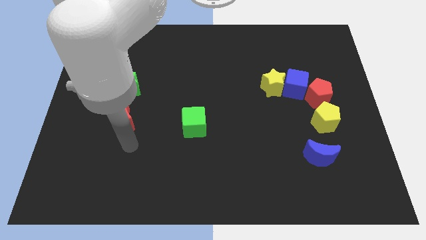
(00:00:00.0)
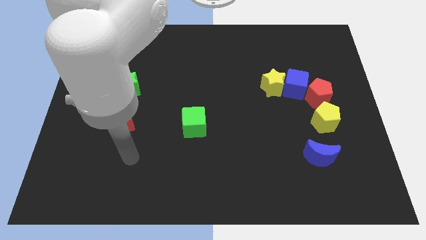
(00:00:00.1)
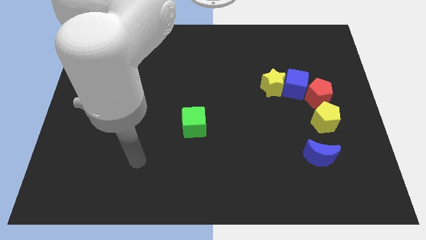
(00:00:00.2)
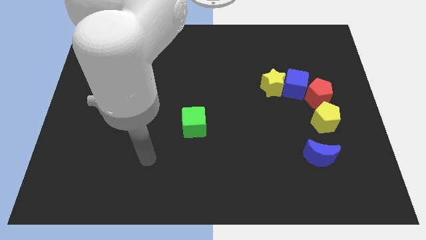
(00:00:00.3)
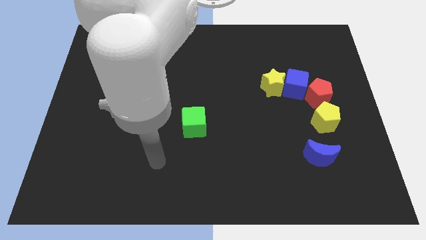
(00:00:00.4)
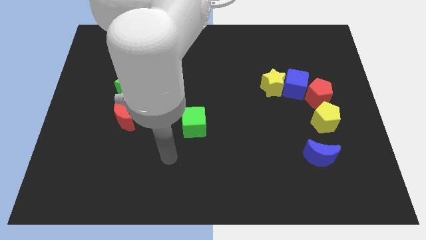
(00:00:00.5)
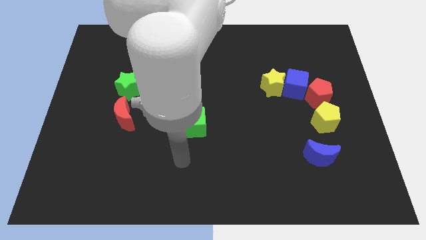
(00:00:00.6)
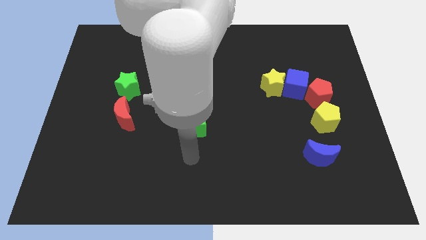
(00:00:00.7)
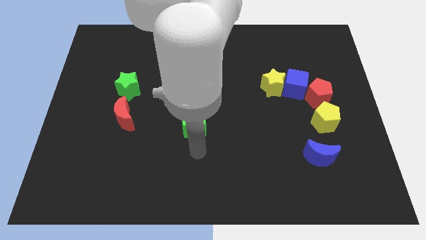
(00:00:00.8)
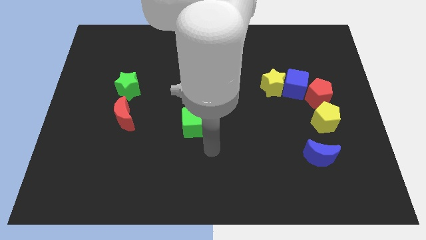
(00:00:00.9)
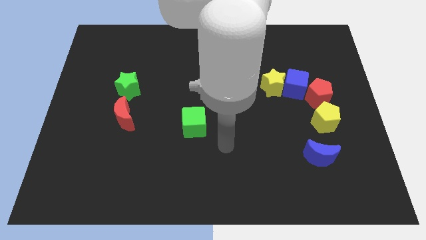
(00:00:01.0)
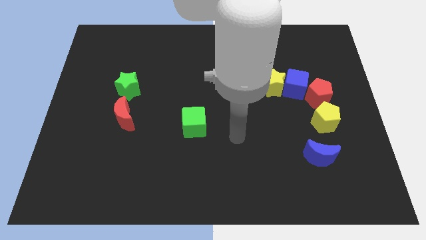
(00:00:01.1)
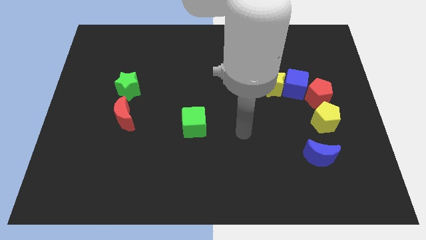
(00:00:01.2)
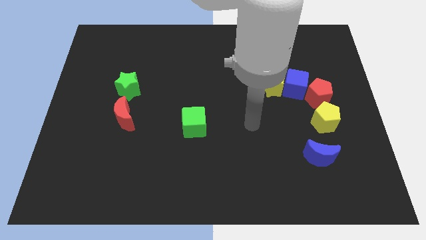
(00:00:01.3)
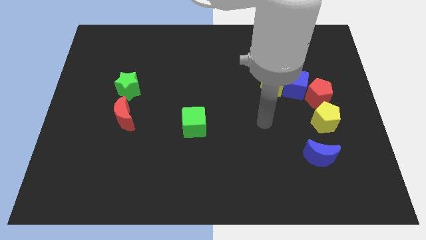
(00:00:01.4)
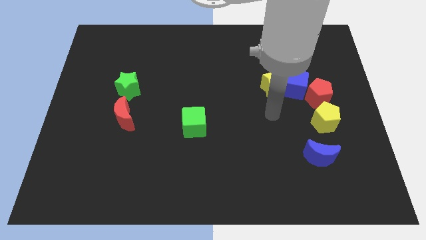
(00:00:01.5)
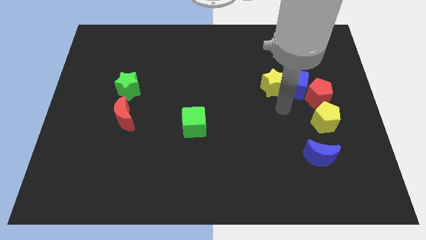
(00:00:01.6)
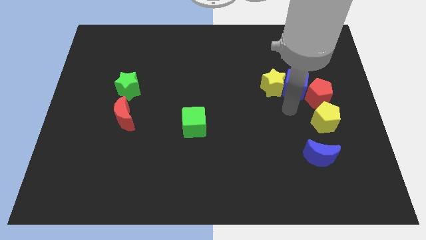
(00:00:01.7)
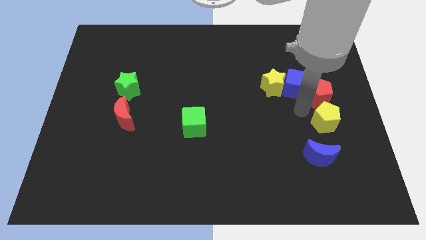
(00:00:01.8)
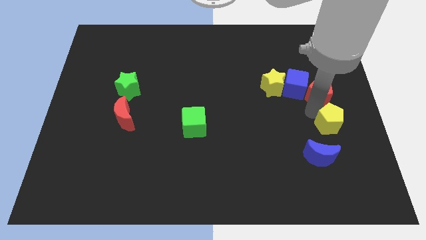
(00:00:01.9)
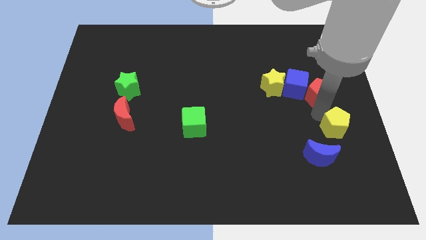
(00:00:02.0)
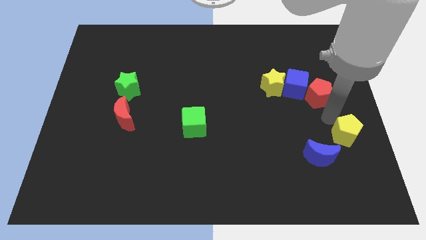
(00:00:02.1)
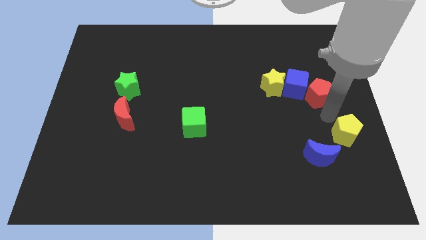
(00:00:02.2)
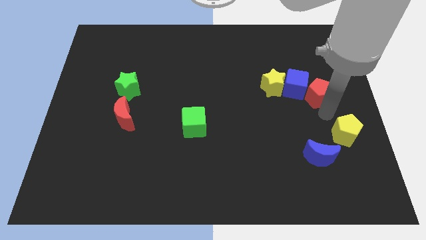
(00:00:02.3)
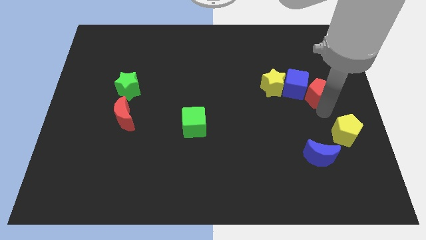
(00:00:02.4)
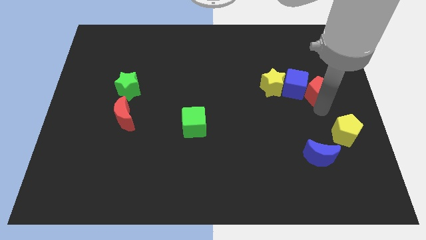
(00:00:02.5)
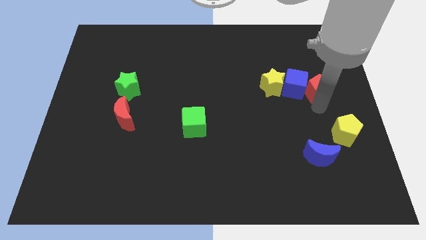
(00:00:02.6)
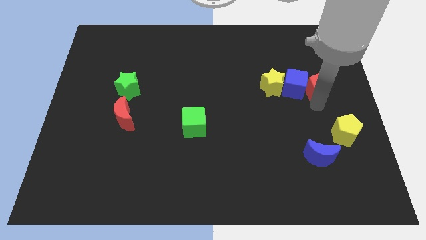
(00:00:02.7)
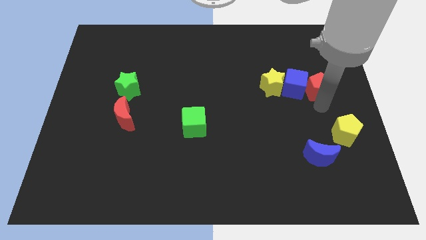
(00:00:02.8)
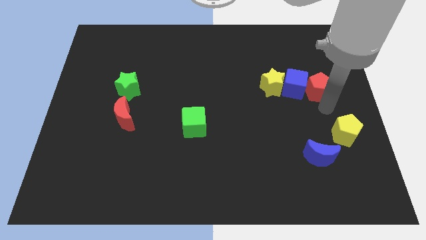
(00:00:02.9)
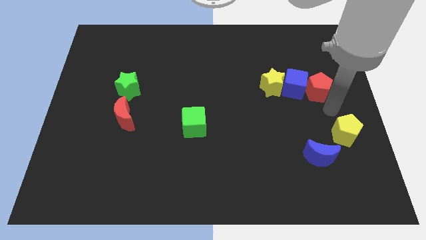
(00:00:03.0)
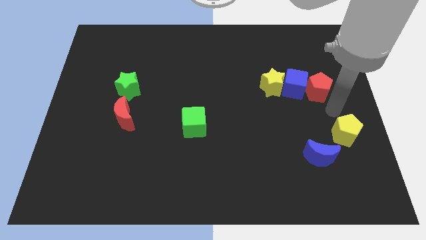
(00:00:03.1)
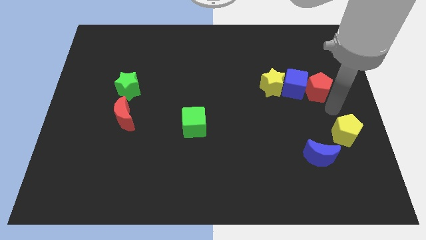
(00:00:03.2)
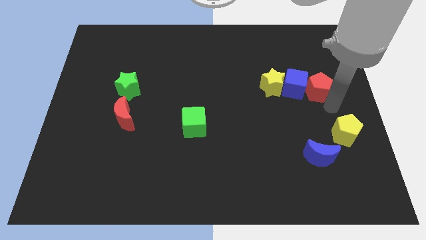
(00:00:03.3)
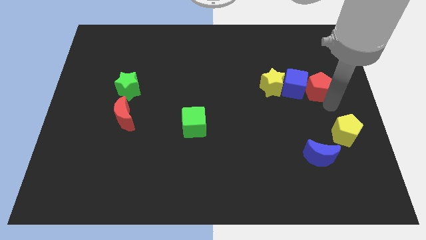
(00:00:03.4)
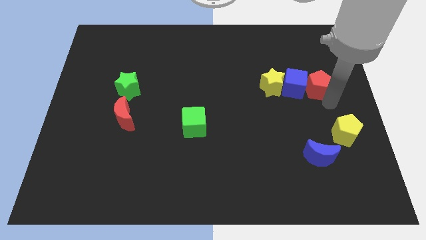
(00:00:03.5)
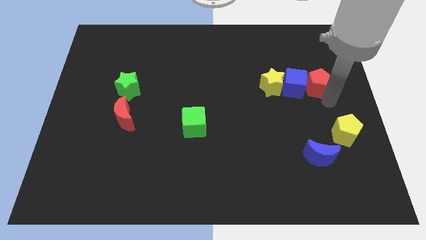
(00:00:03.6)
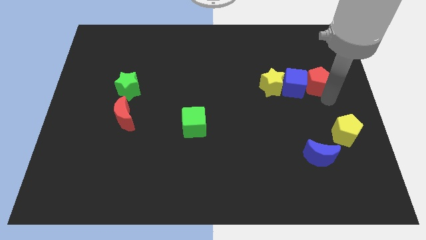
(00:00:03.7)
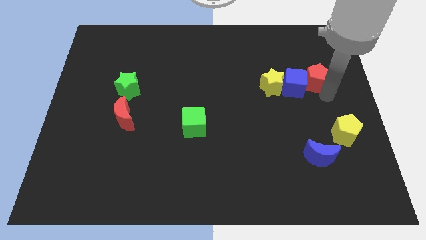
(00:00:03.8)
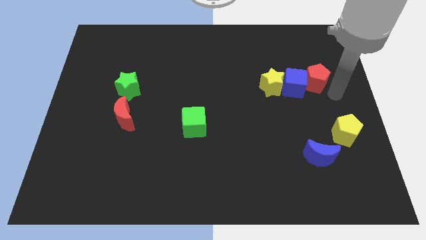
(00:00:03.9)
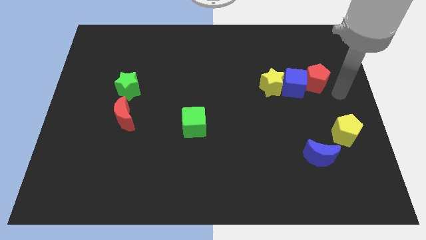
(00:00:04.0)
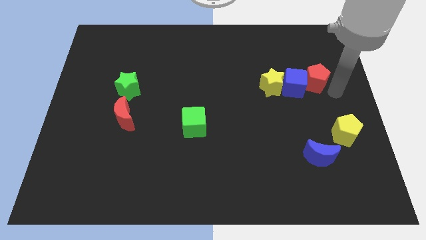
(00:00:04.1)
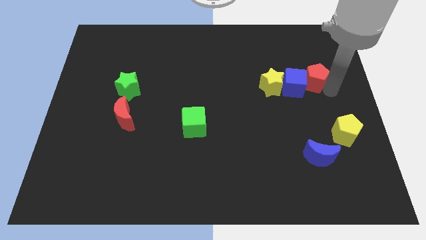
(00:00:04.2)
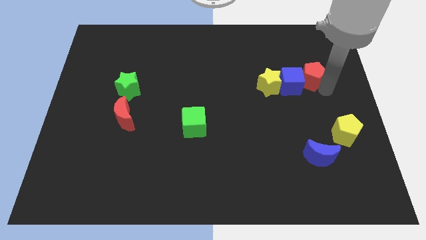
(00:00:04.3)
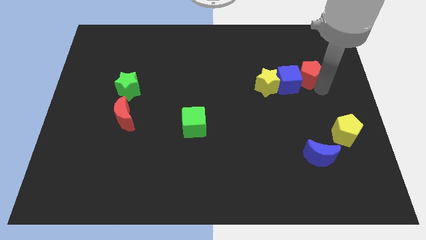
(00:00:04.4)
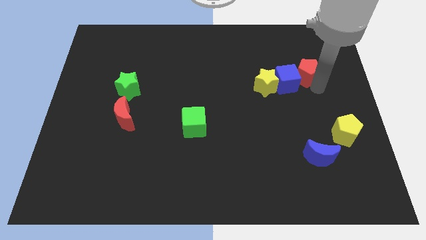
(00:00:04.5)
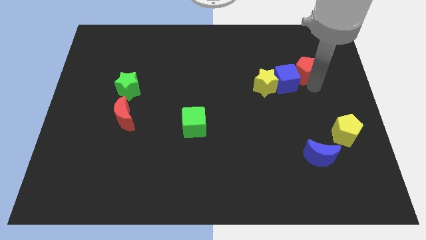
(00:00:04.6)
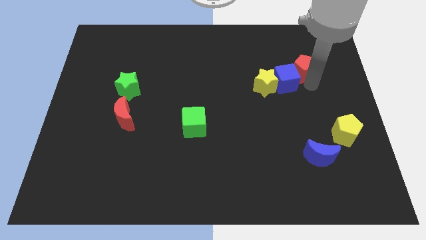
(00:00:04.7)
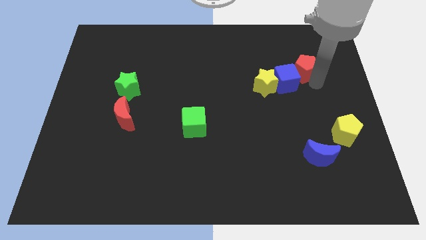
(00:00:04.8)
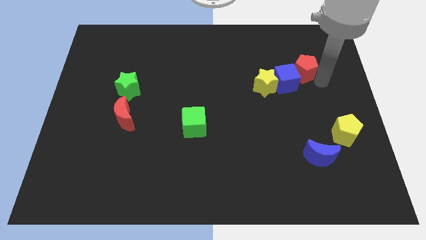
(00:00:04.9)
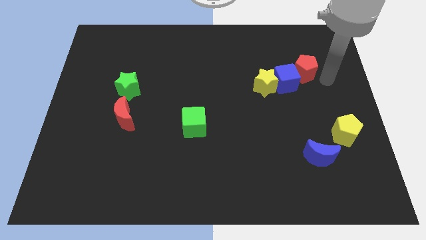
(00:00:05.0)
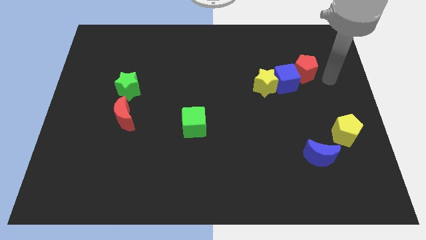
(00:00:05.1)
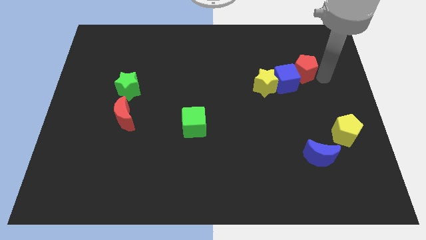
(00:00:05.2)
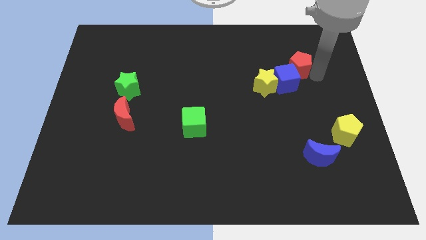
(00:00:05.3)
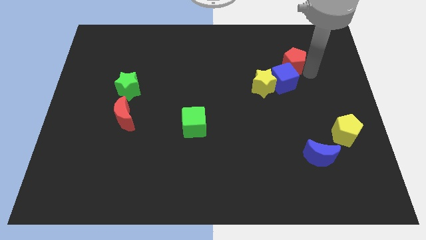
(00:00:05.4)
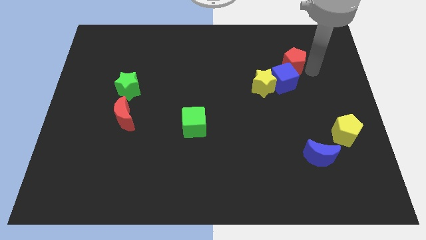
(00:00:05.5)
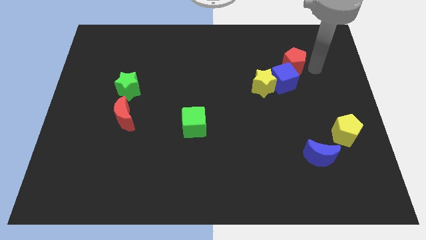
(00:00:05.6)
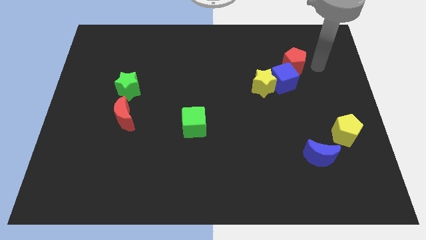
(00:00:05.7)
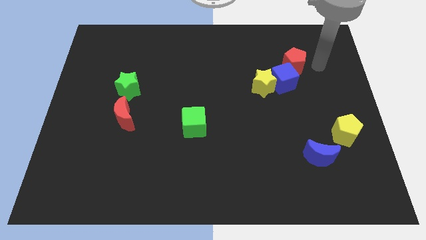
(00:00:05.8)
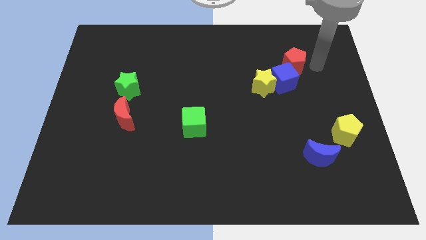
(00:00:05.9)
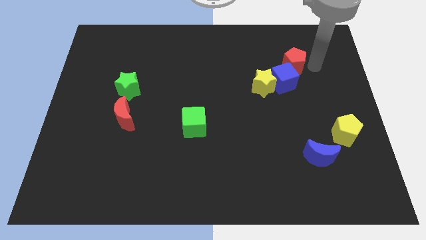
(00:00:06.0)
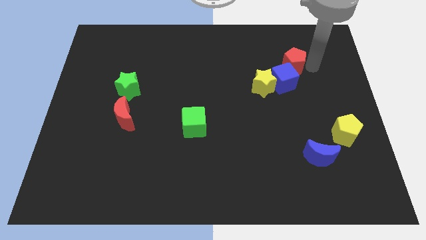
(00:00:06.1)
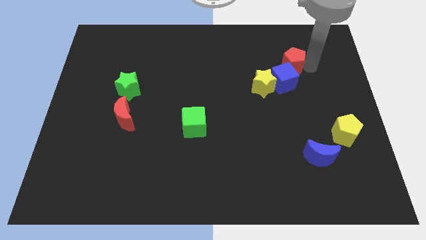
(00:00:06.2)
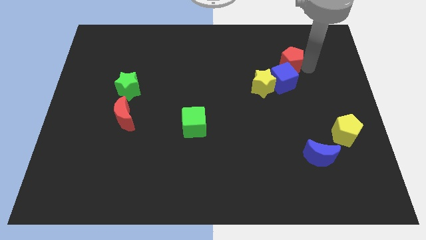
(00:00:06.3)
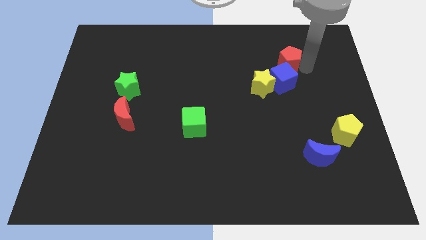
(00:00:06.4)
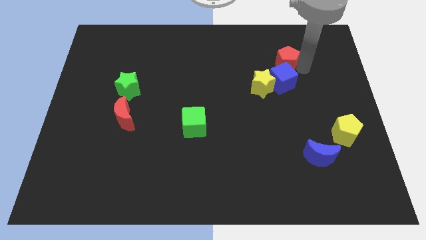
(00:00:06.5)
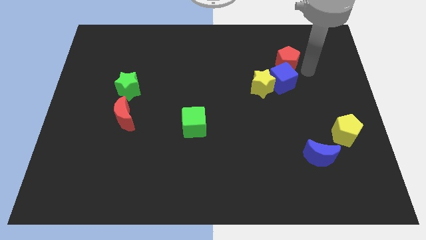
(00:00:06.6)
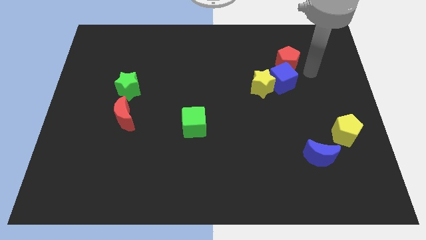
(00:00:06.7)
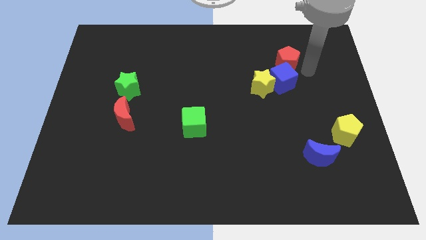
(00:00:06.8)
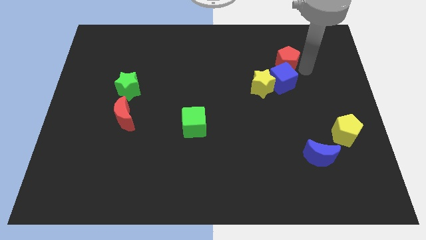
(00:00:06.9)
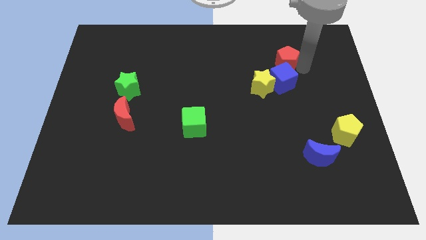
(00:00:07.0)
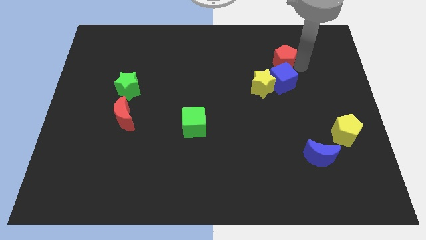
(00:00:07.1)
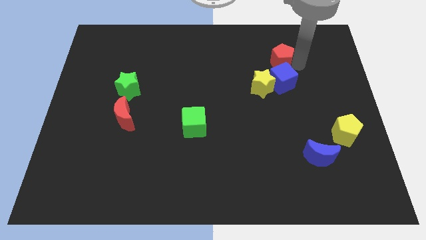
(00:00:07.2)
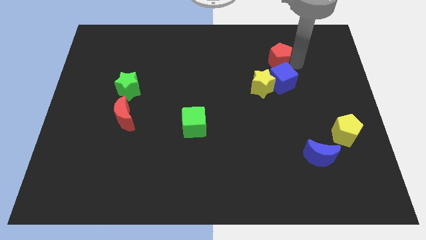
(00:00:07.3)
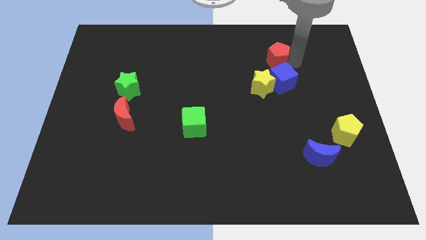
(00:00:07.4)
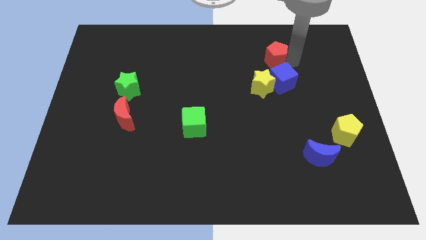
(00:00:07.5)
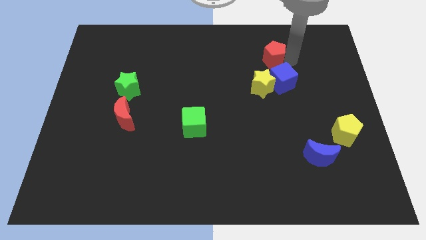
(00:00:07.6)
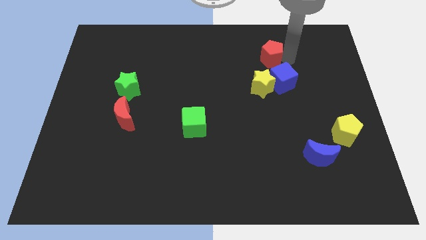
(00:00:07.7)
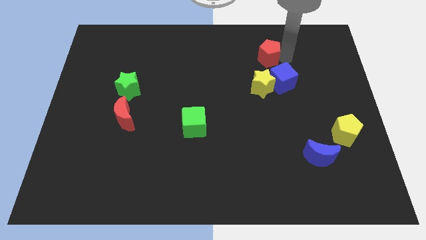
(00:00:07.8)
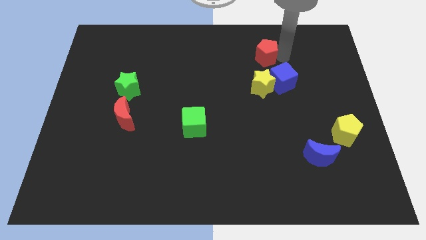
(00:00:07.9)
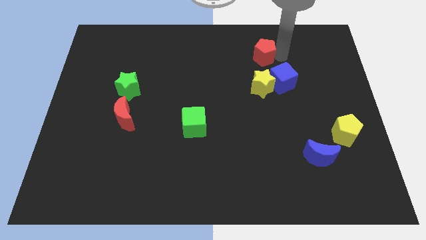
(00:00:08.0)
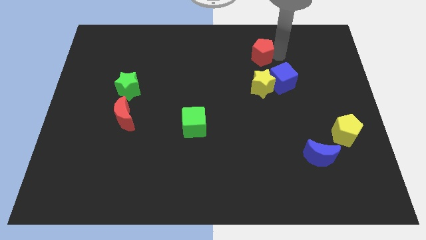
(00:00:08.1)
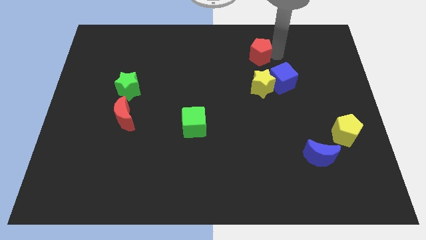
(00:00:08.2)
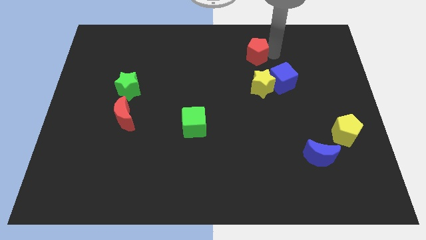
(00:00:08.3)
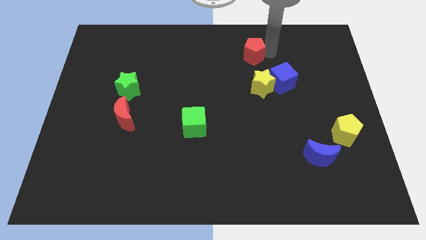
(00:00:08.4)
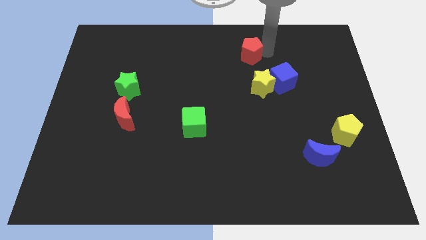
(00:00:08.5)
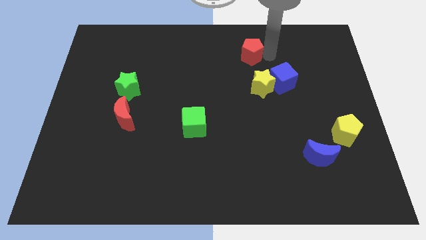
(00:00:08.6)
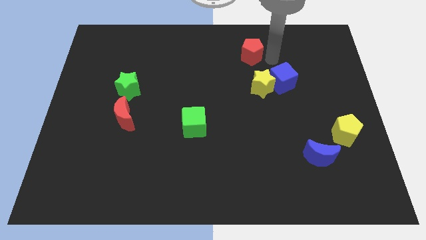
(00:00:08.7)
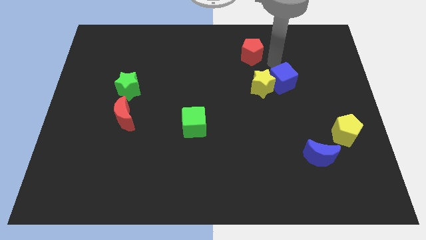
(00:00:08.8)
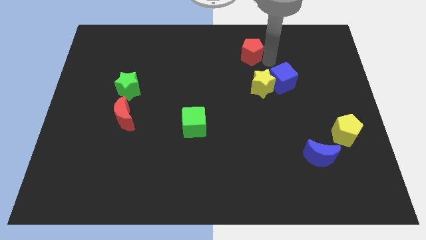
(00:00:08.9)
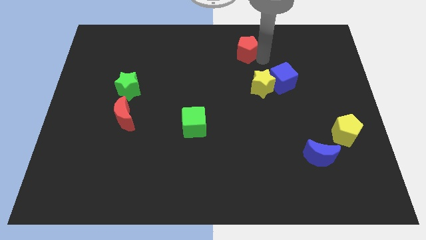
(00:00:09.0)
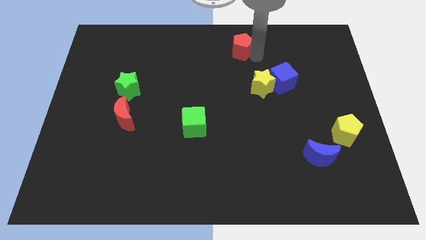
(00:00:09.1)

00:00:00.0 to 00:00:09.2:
put the red pentagon to the top
